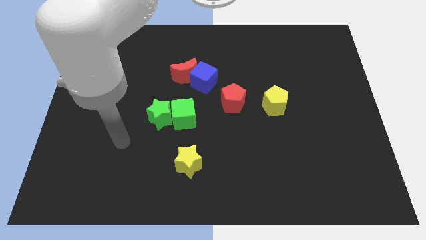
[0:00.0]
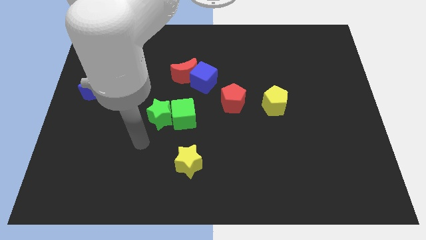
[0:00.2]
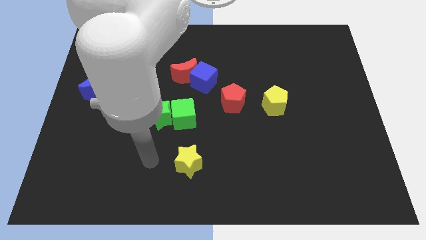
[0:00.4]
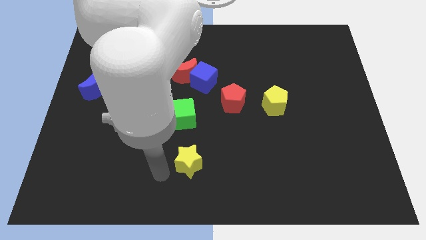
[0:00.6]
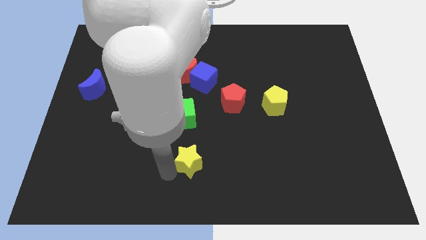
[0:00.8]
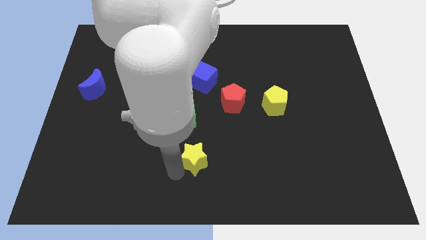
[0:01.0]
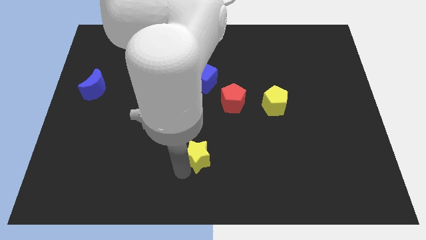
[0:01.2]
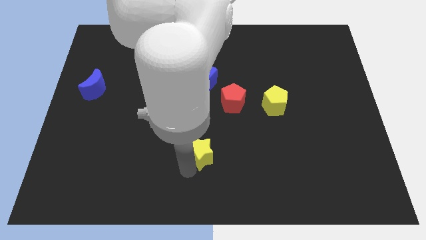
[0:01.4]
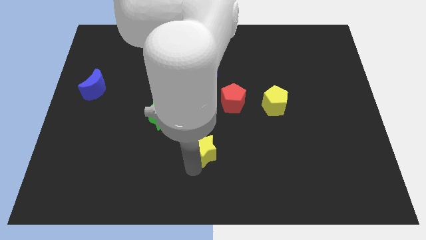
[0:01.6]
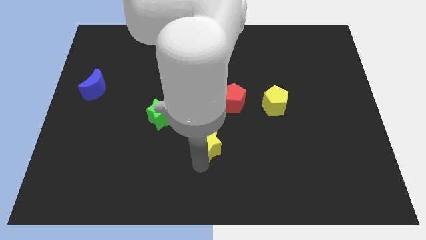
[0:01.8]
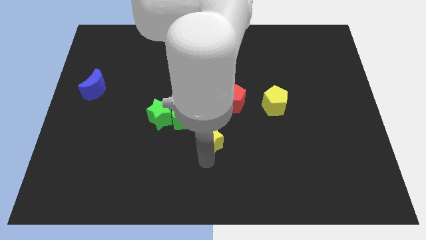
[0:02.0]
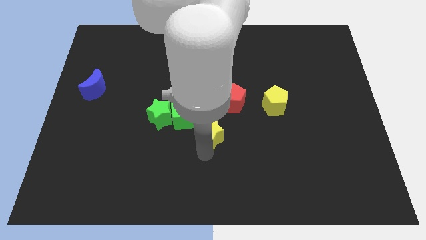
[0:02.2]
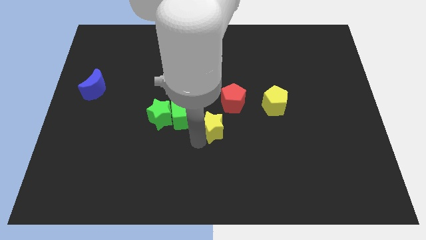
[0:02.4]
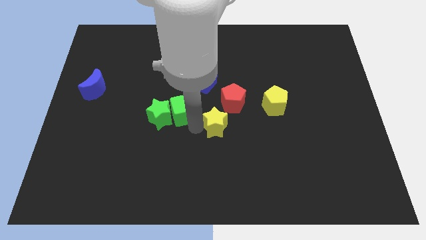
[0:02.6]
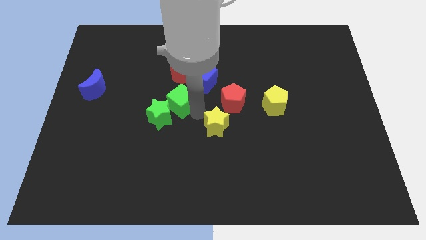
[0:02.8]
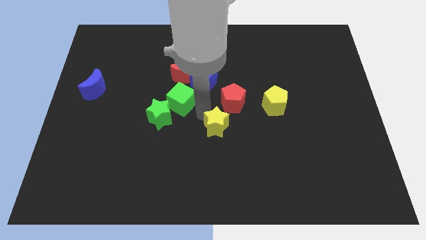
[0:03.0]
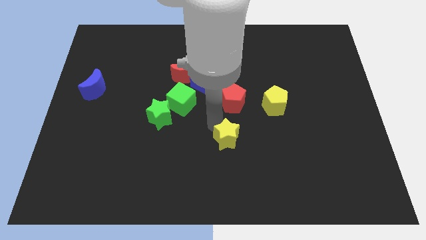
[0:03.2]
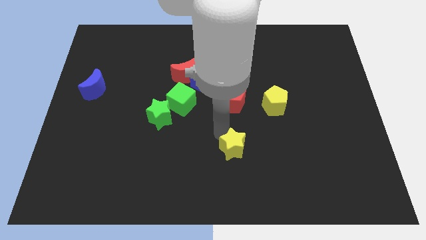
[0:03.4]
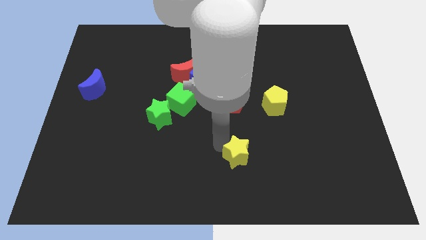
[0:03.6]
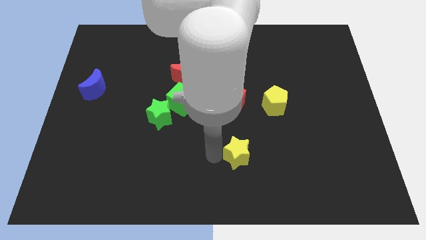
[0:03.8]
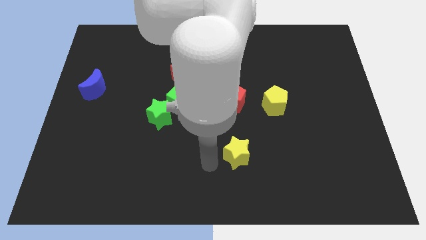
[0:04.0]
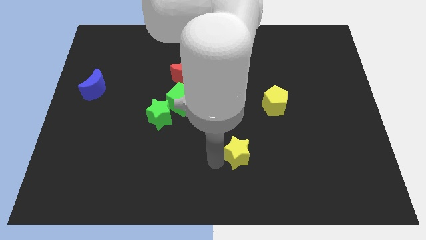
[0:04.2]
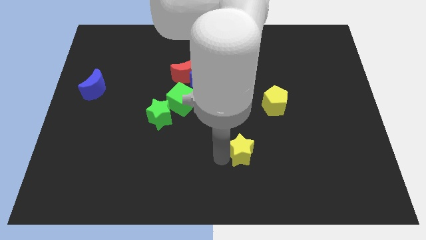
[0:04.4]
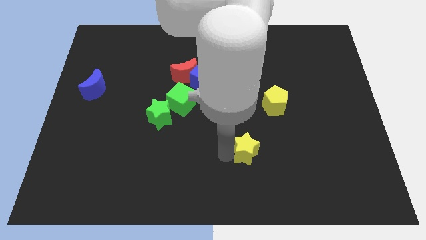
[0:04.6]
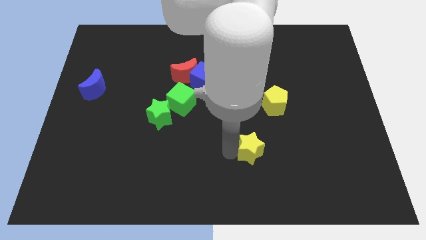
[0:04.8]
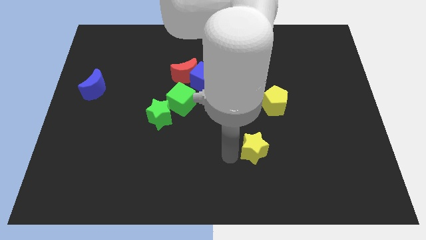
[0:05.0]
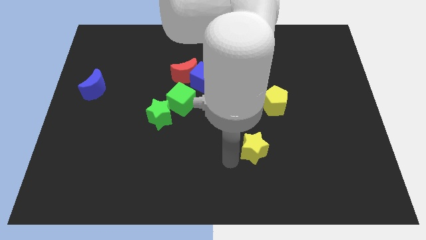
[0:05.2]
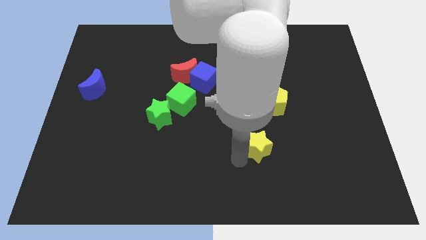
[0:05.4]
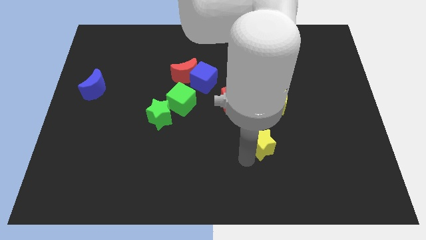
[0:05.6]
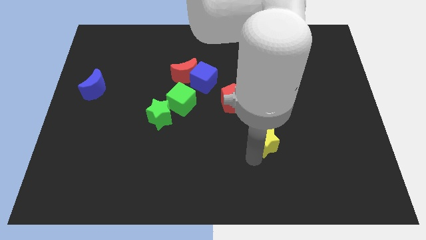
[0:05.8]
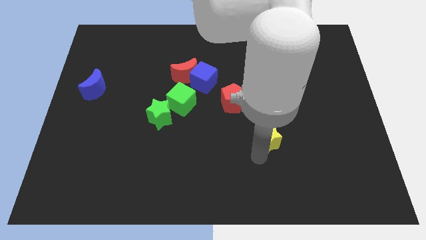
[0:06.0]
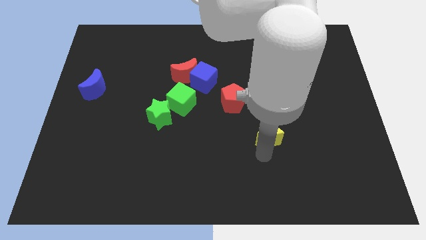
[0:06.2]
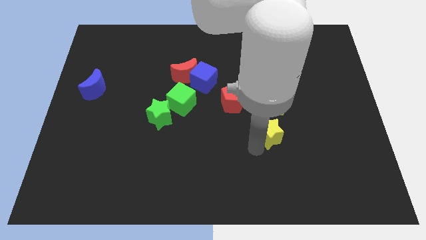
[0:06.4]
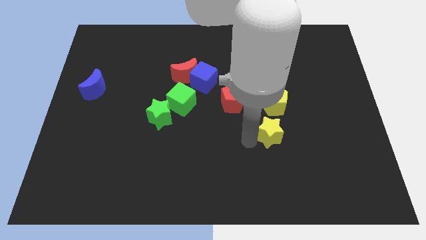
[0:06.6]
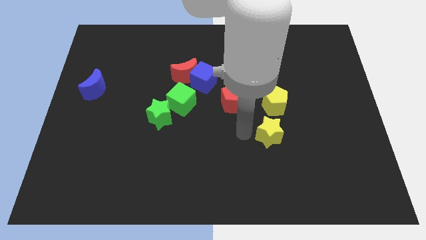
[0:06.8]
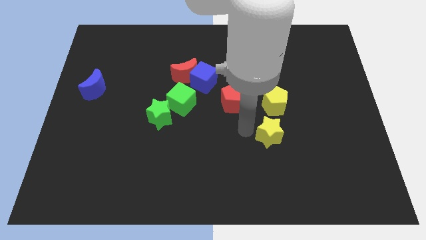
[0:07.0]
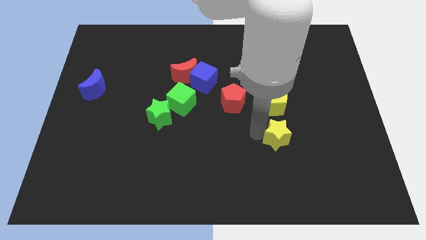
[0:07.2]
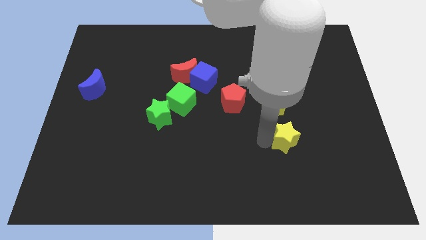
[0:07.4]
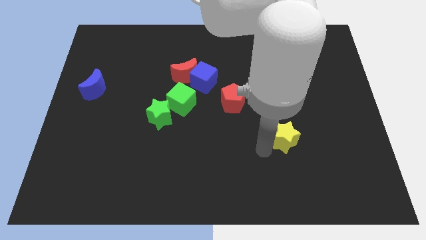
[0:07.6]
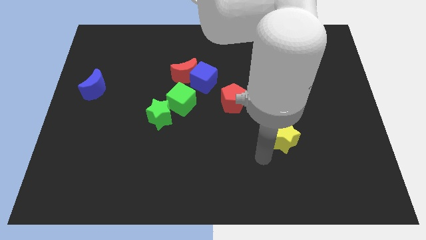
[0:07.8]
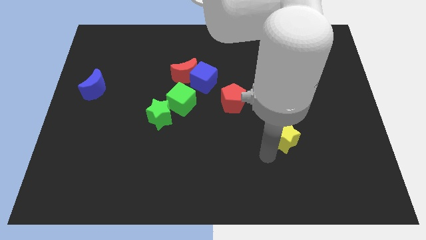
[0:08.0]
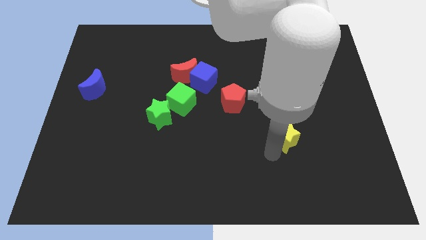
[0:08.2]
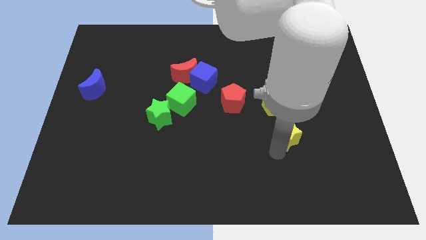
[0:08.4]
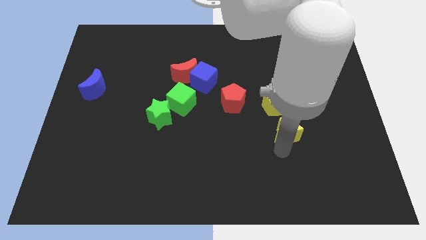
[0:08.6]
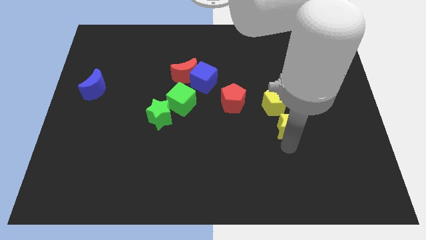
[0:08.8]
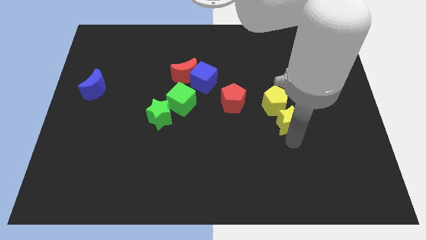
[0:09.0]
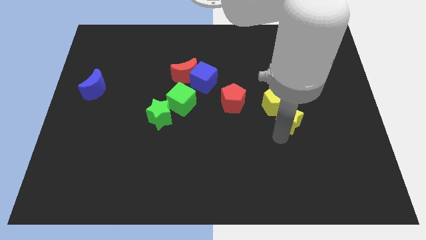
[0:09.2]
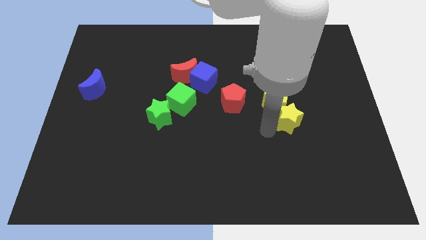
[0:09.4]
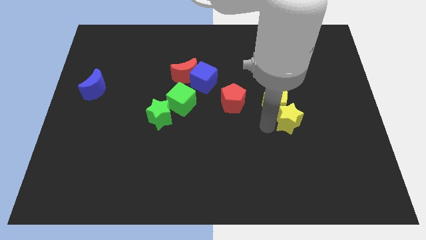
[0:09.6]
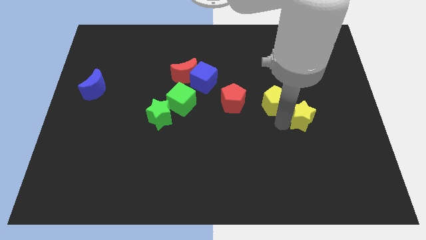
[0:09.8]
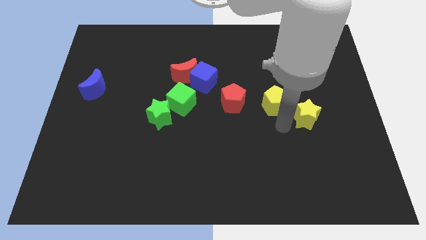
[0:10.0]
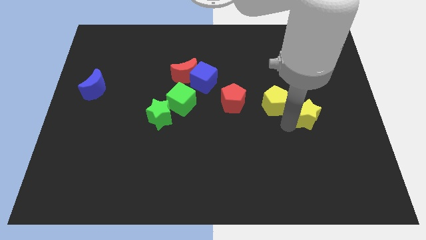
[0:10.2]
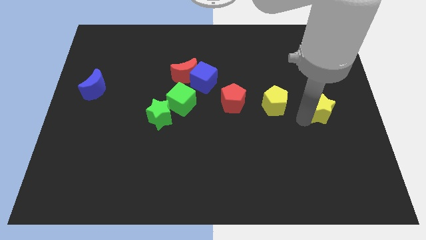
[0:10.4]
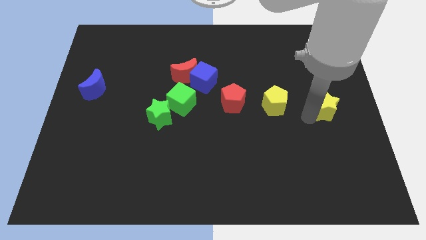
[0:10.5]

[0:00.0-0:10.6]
move the yellow star to the center right

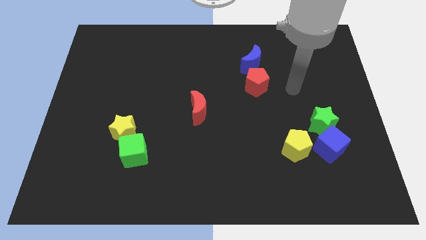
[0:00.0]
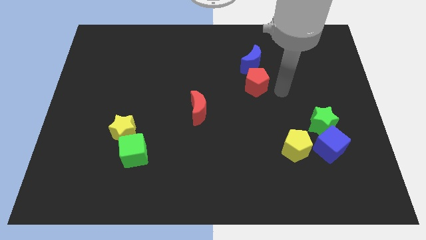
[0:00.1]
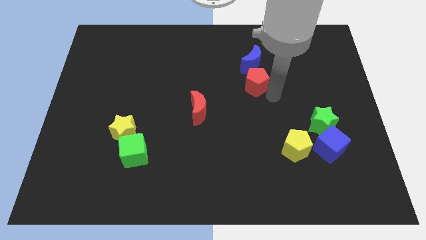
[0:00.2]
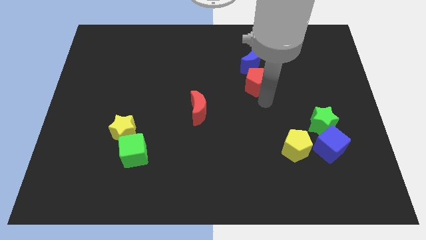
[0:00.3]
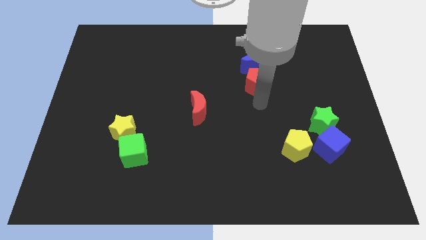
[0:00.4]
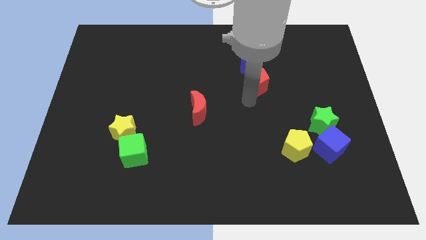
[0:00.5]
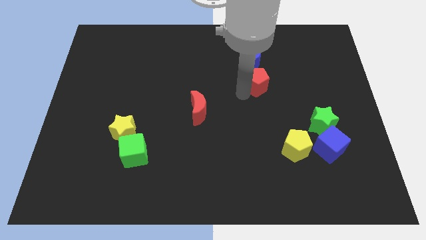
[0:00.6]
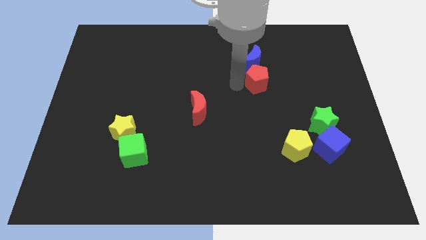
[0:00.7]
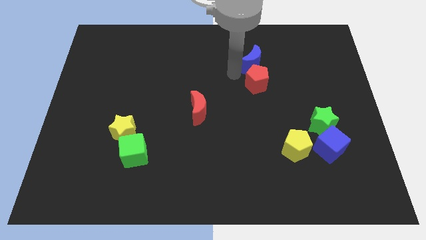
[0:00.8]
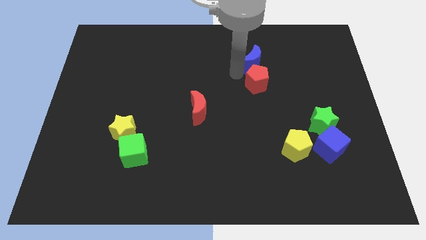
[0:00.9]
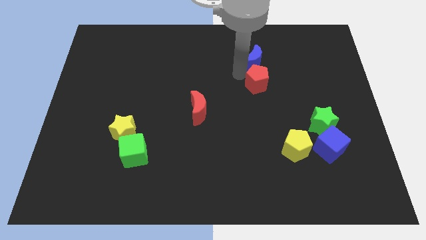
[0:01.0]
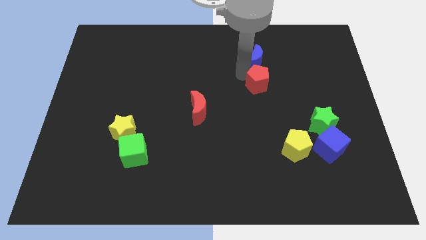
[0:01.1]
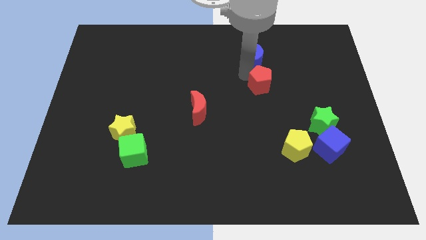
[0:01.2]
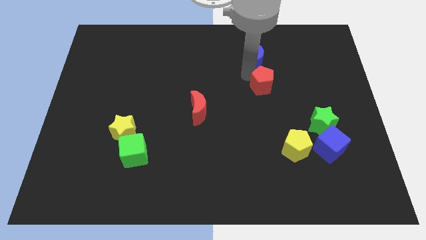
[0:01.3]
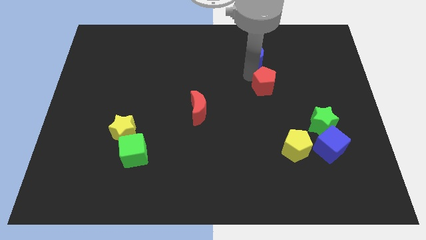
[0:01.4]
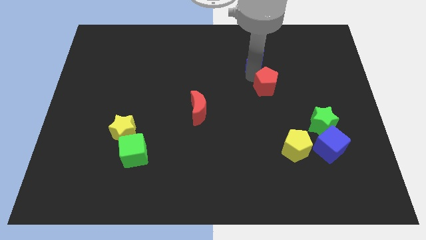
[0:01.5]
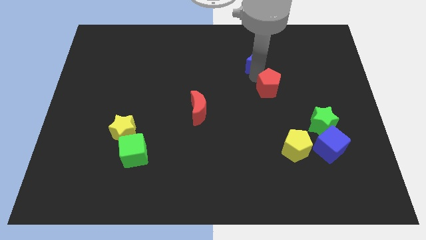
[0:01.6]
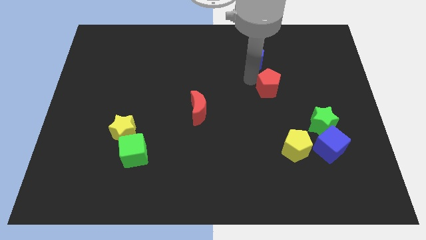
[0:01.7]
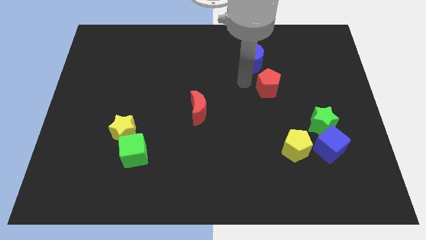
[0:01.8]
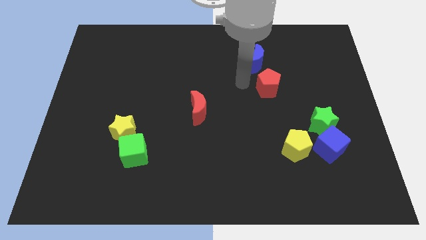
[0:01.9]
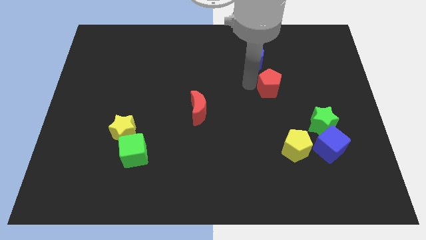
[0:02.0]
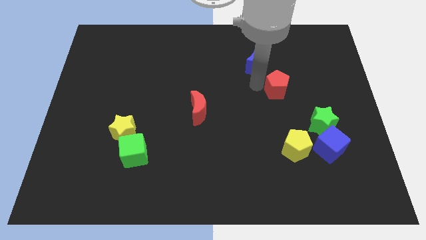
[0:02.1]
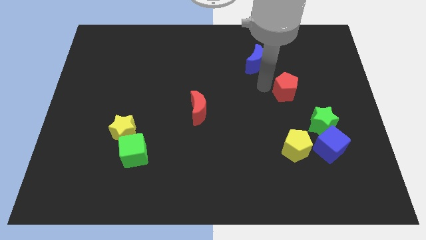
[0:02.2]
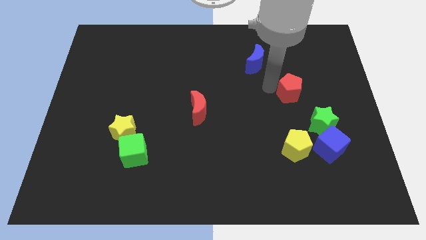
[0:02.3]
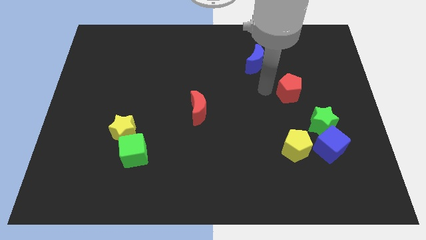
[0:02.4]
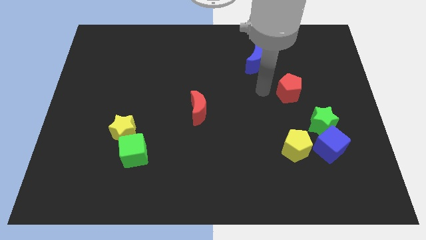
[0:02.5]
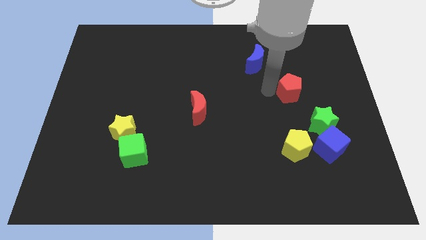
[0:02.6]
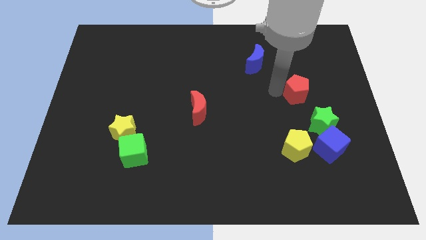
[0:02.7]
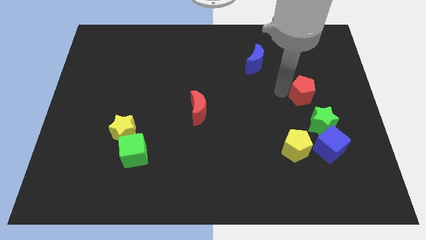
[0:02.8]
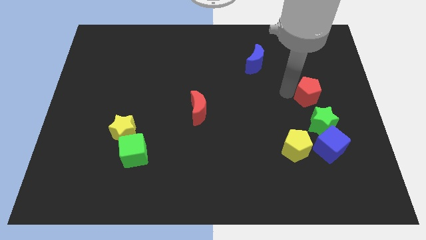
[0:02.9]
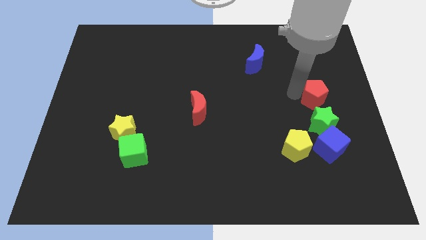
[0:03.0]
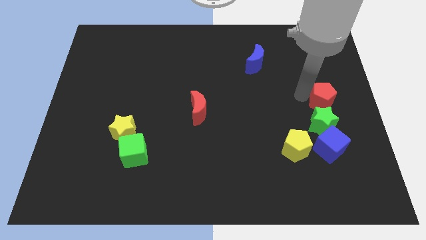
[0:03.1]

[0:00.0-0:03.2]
slide the red pentagon to the right side of the board
